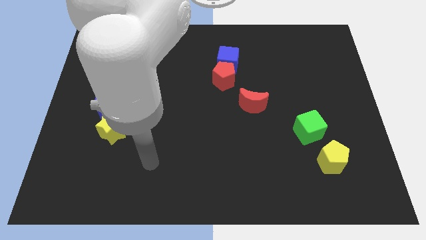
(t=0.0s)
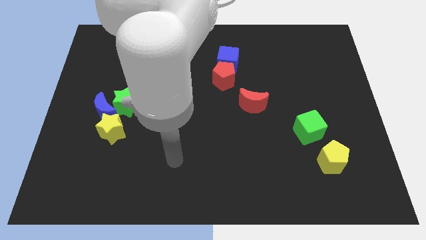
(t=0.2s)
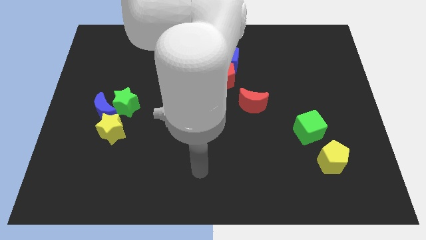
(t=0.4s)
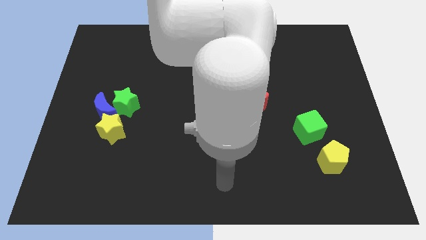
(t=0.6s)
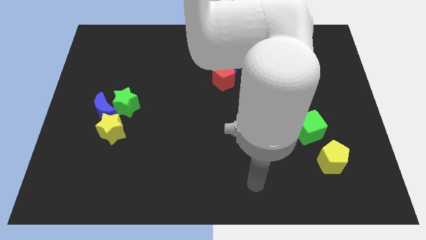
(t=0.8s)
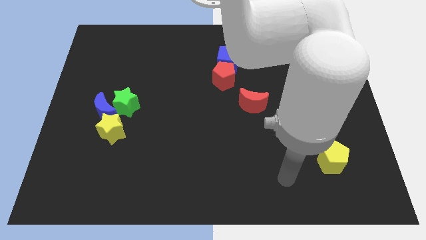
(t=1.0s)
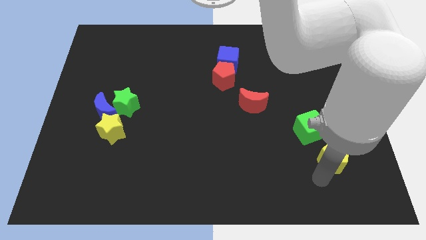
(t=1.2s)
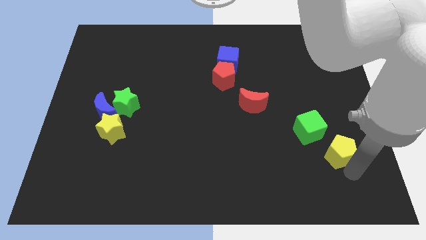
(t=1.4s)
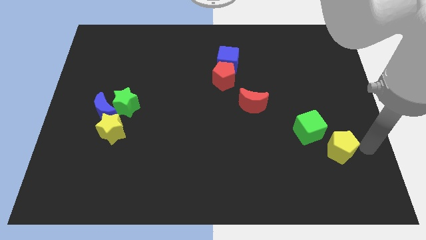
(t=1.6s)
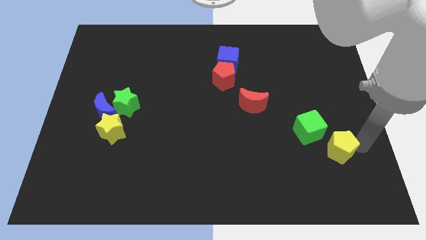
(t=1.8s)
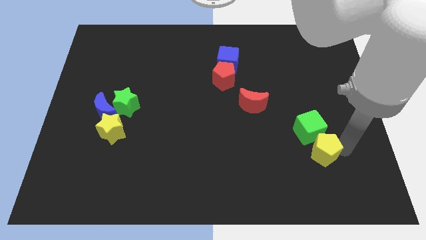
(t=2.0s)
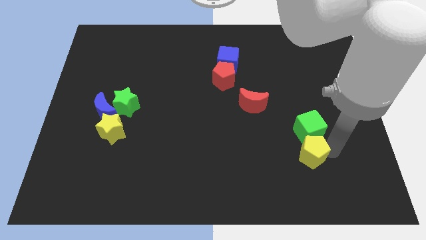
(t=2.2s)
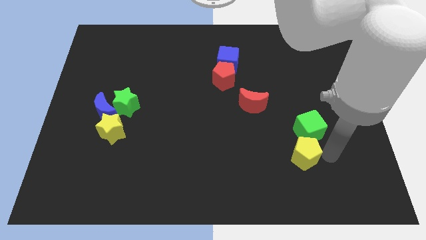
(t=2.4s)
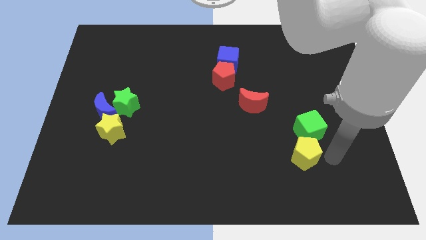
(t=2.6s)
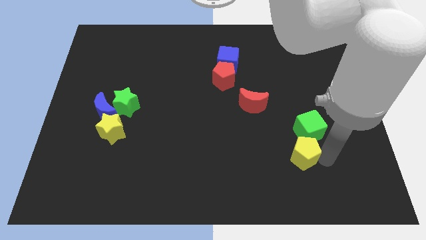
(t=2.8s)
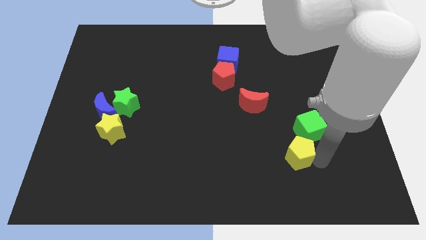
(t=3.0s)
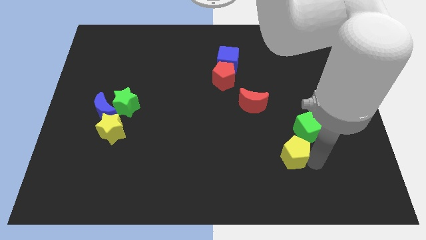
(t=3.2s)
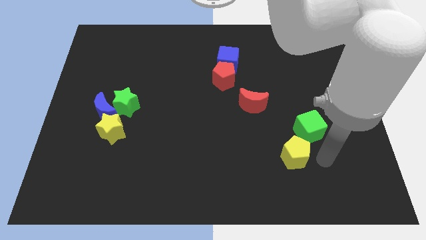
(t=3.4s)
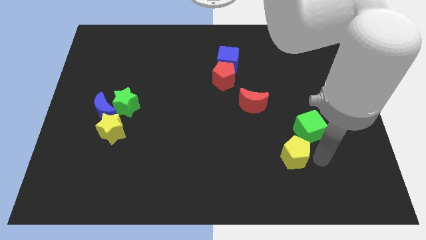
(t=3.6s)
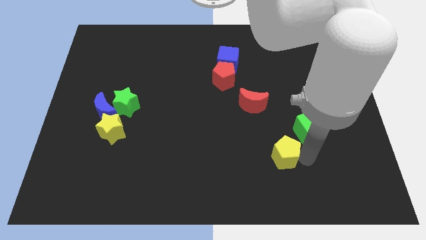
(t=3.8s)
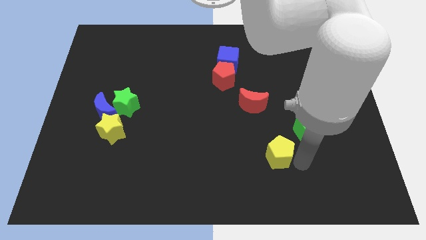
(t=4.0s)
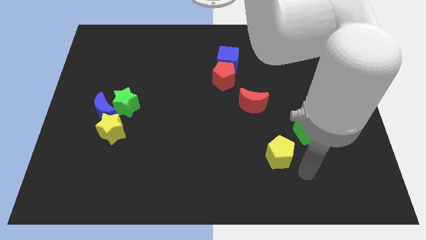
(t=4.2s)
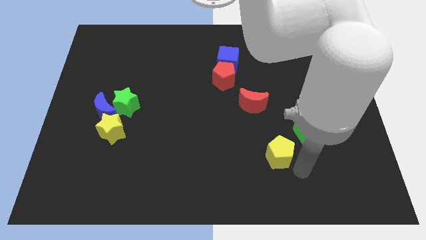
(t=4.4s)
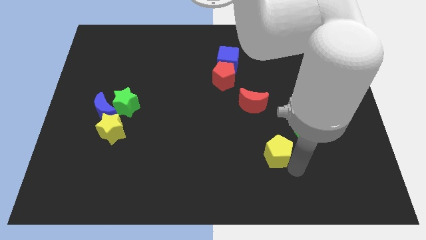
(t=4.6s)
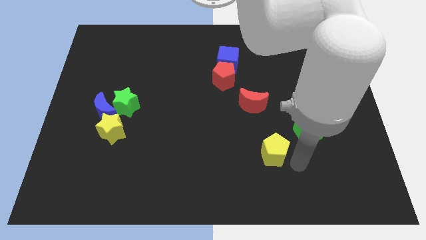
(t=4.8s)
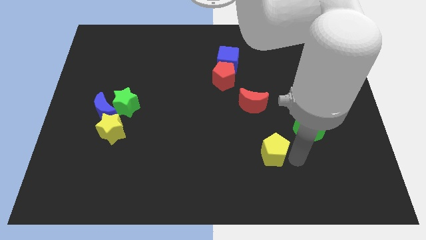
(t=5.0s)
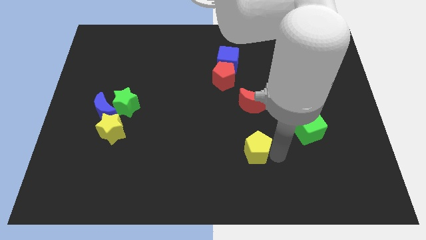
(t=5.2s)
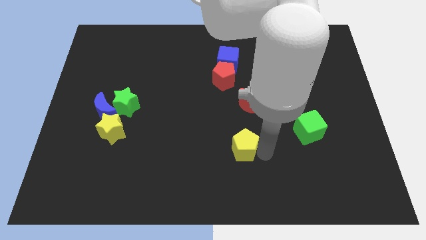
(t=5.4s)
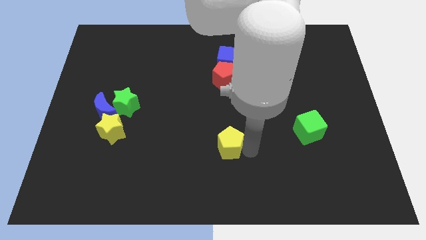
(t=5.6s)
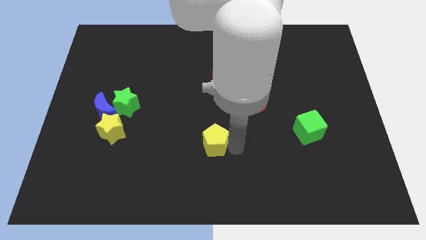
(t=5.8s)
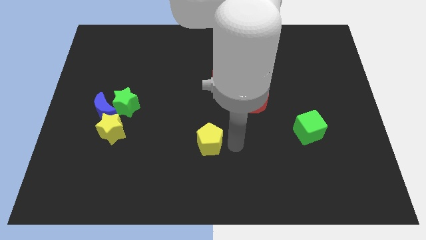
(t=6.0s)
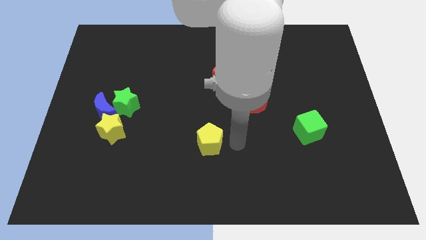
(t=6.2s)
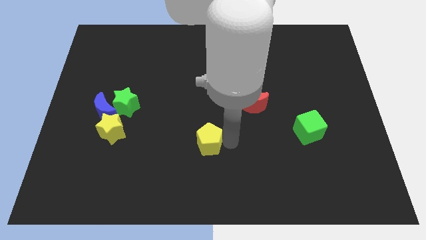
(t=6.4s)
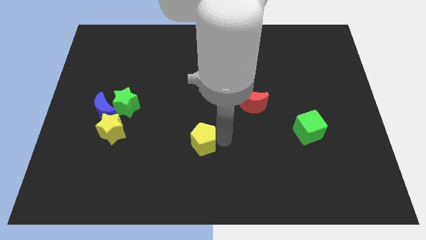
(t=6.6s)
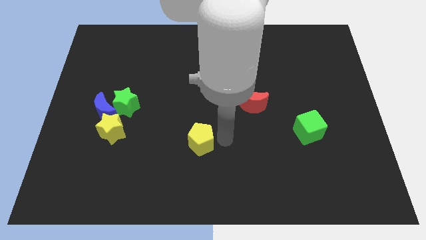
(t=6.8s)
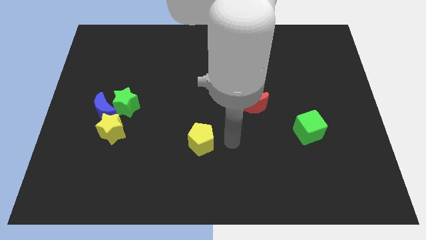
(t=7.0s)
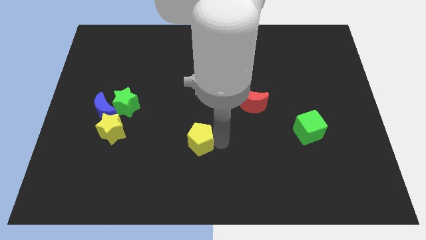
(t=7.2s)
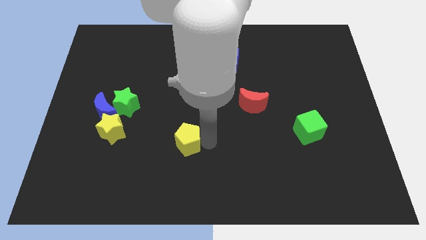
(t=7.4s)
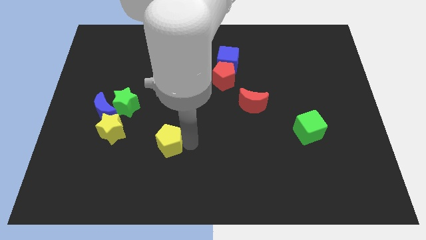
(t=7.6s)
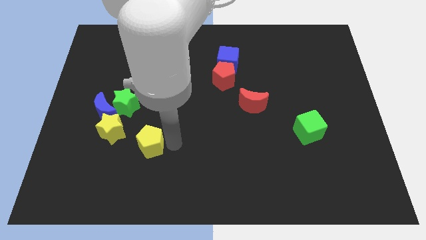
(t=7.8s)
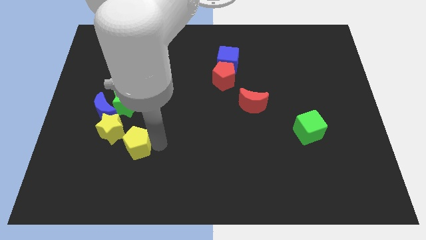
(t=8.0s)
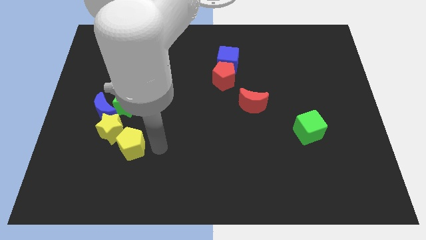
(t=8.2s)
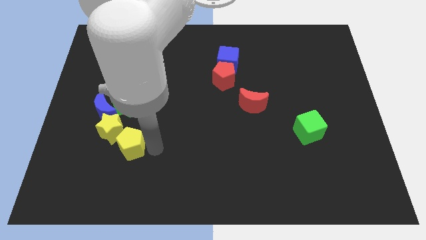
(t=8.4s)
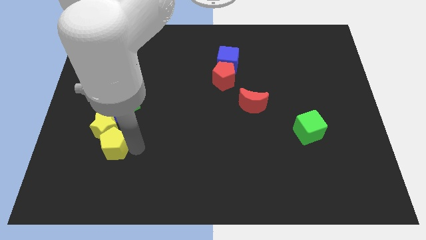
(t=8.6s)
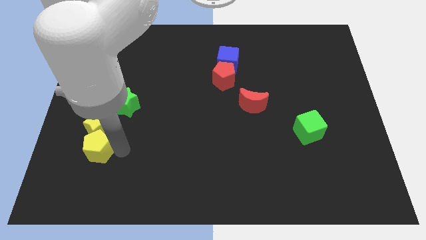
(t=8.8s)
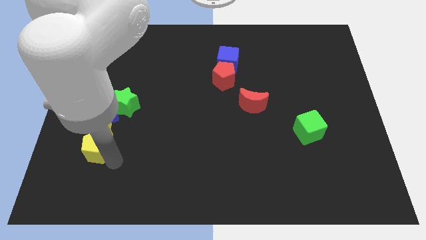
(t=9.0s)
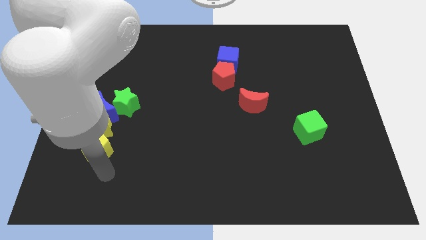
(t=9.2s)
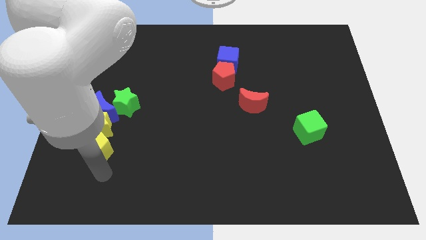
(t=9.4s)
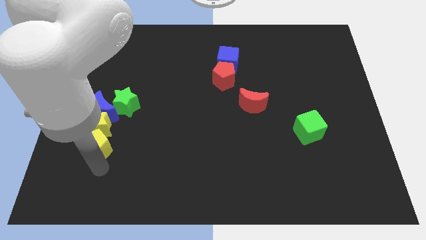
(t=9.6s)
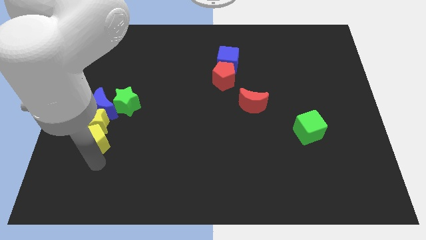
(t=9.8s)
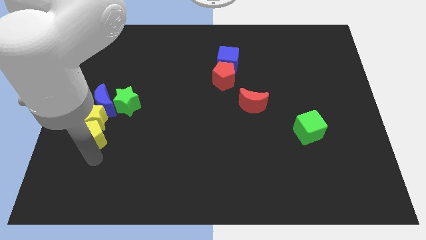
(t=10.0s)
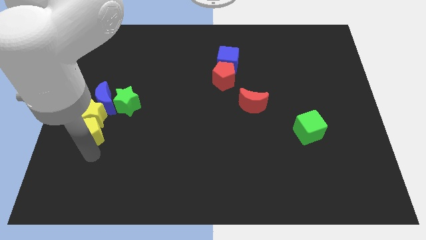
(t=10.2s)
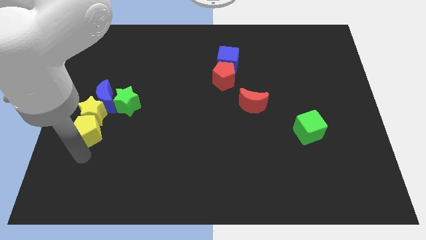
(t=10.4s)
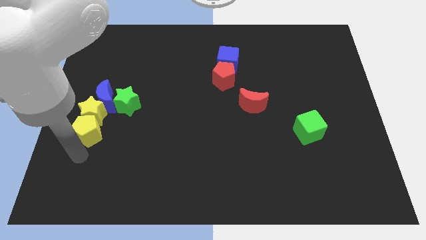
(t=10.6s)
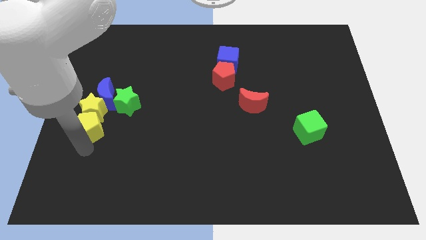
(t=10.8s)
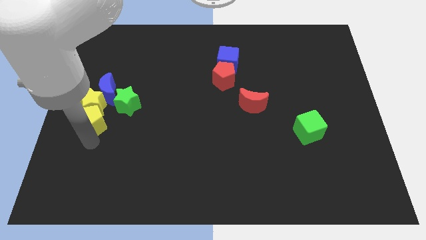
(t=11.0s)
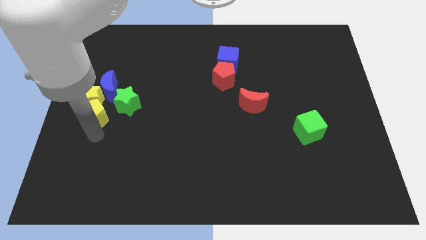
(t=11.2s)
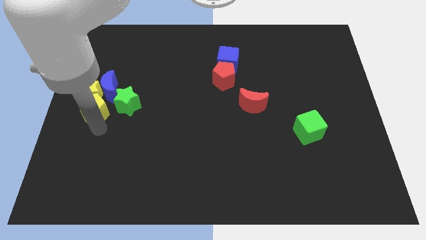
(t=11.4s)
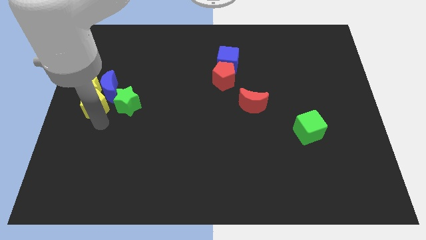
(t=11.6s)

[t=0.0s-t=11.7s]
put the yellow pentagon towards the blue moon

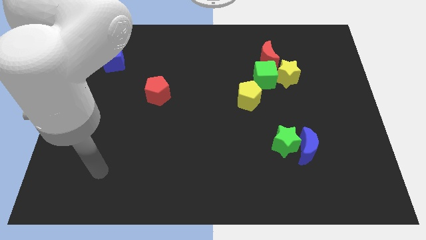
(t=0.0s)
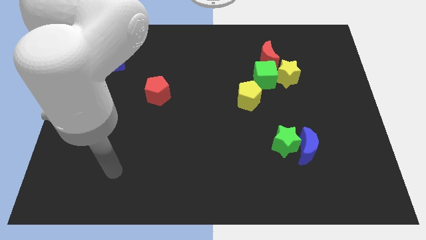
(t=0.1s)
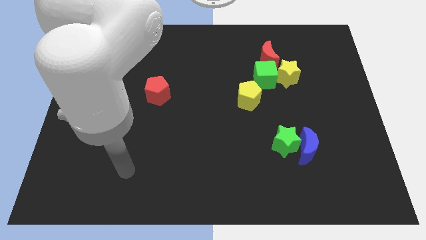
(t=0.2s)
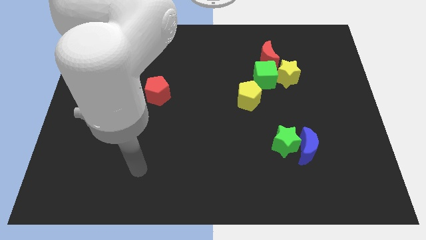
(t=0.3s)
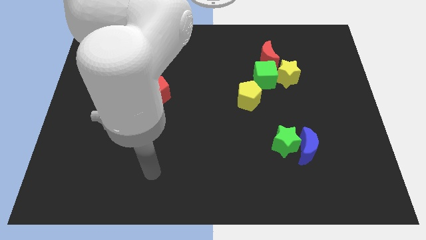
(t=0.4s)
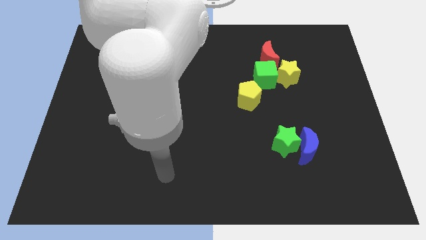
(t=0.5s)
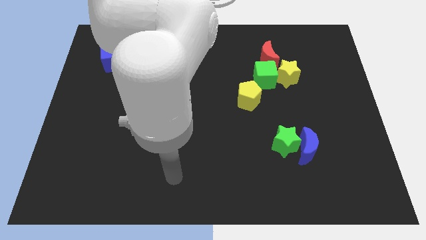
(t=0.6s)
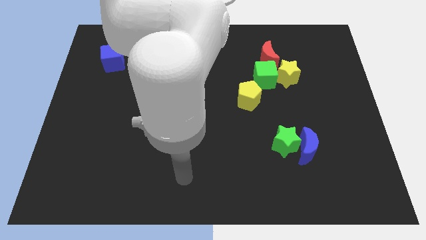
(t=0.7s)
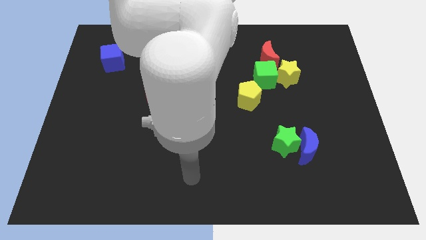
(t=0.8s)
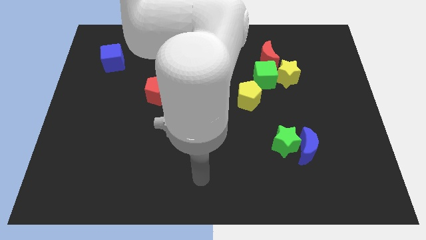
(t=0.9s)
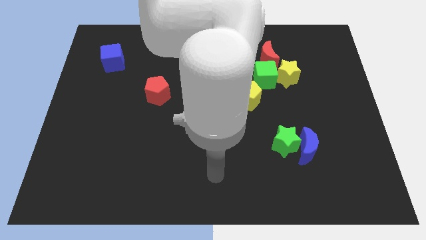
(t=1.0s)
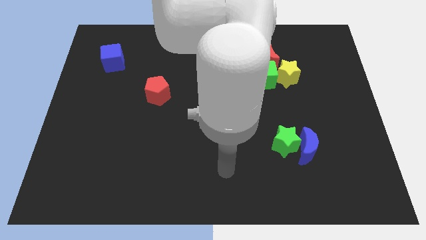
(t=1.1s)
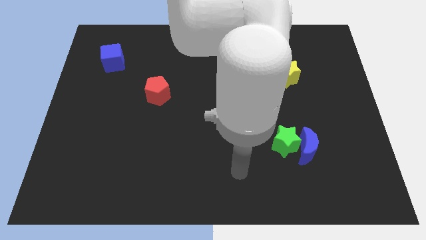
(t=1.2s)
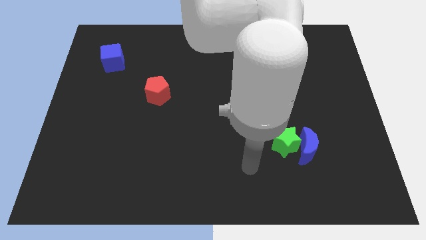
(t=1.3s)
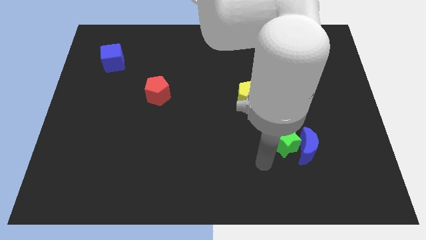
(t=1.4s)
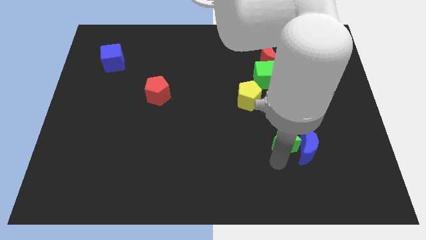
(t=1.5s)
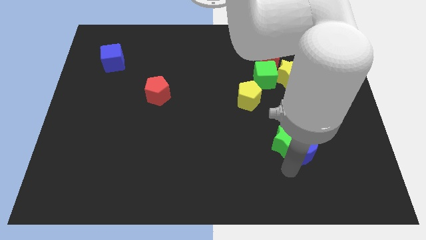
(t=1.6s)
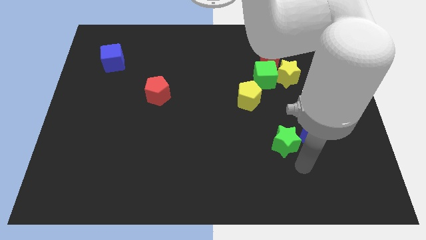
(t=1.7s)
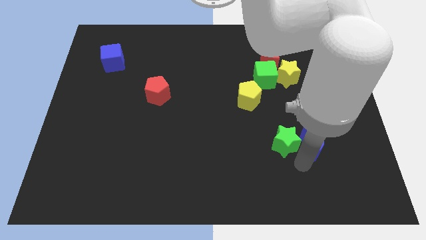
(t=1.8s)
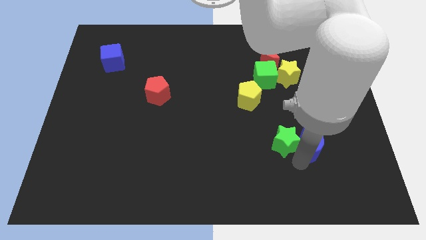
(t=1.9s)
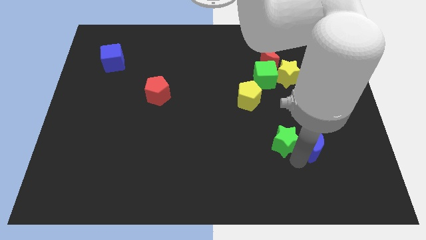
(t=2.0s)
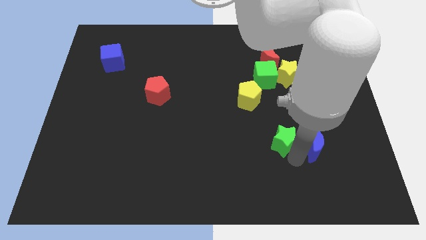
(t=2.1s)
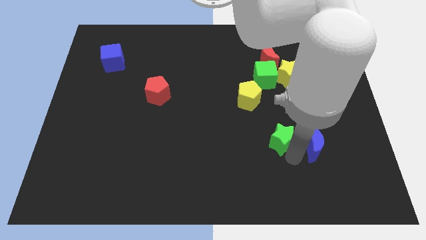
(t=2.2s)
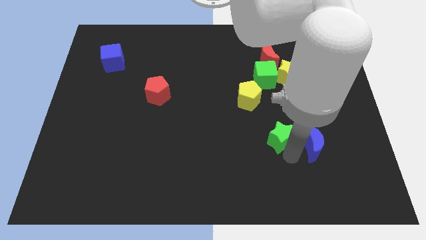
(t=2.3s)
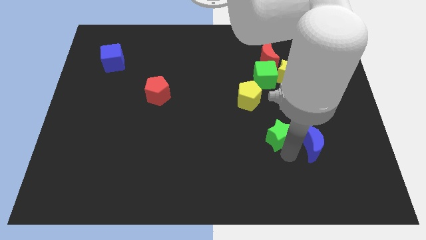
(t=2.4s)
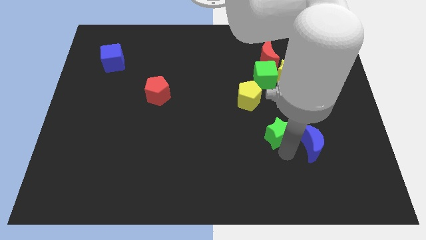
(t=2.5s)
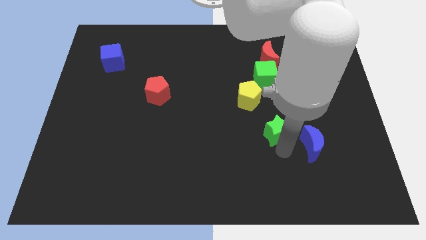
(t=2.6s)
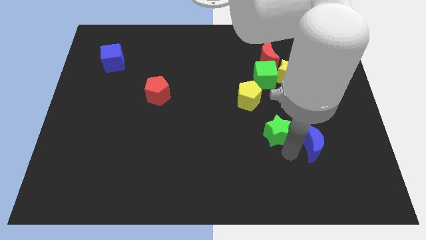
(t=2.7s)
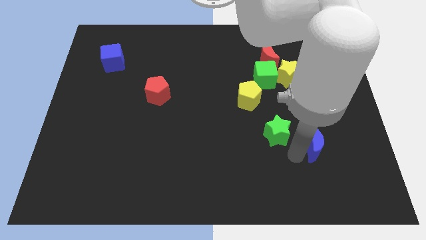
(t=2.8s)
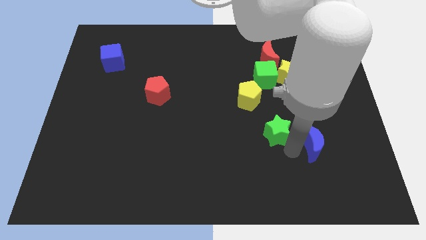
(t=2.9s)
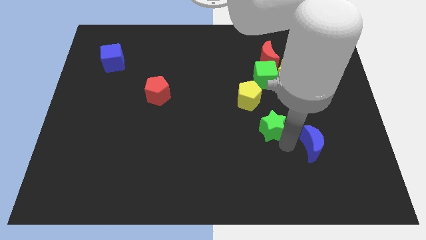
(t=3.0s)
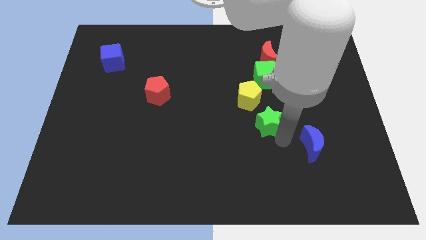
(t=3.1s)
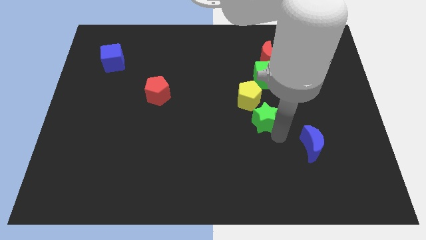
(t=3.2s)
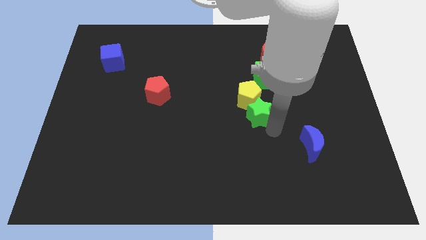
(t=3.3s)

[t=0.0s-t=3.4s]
push the green star to the yellow pentagon
